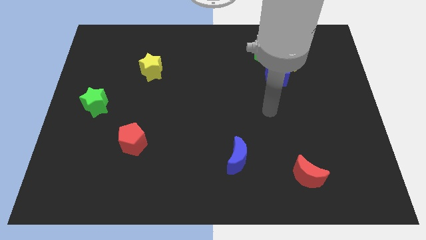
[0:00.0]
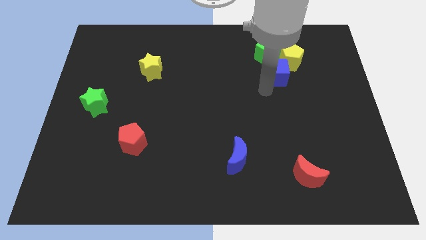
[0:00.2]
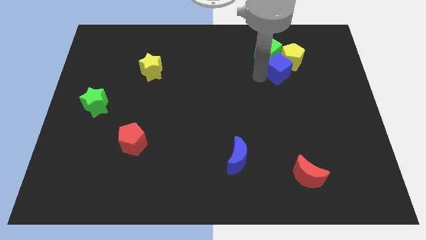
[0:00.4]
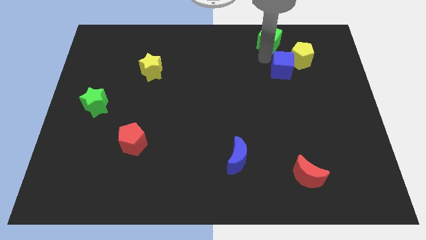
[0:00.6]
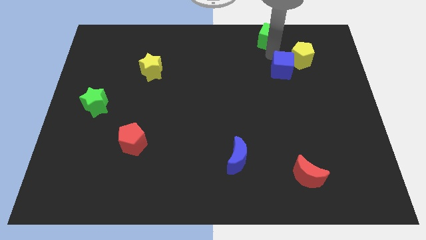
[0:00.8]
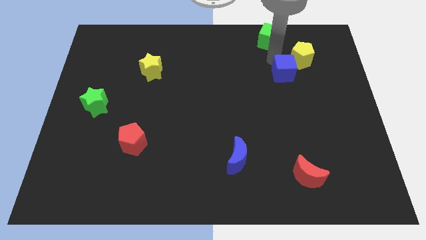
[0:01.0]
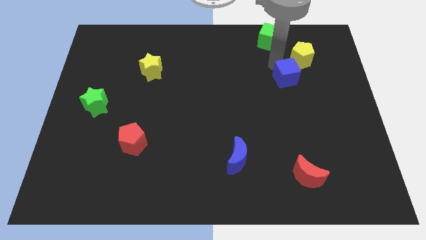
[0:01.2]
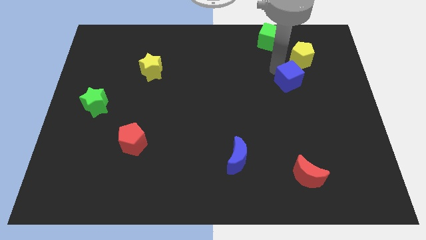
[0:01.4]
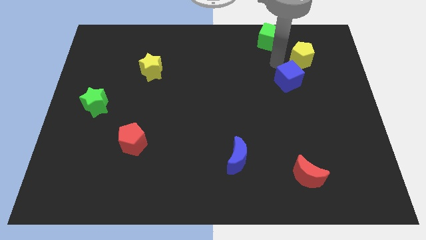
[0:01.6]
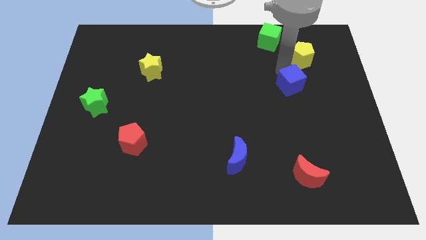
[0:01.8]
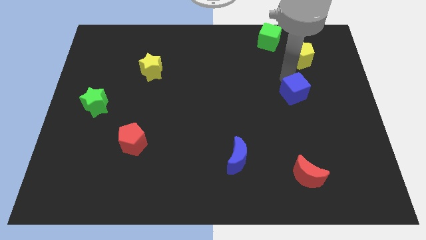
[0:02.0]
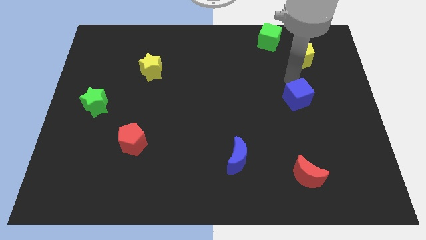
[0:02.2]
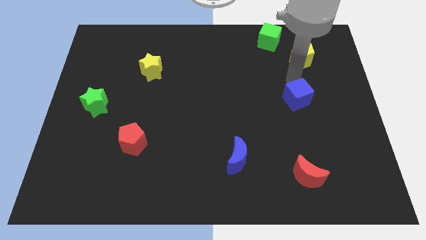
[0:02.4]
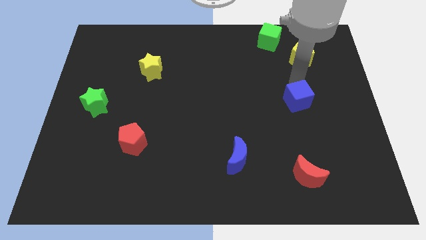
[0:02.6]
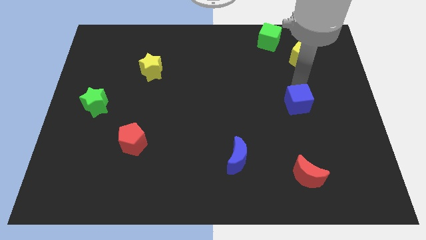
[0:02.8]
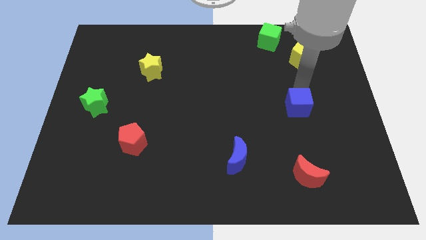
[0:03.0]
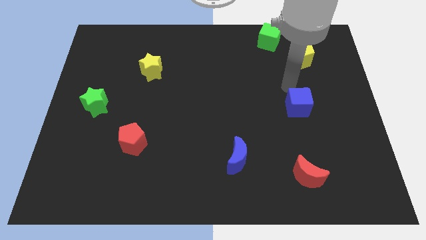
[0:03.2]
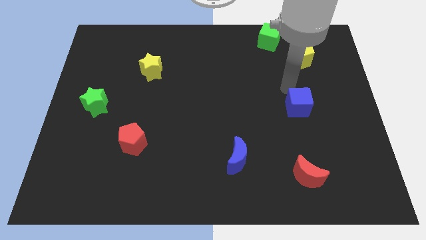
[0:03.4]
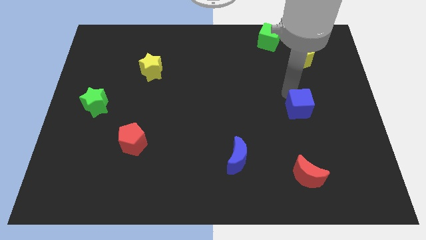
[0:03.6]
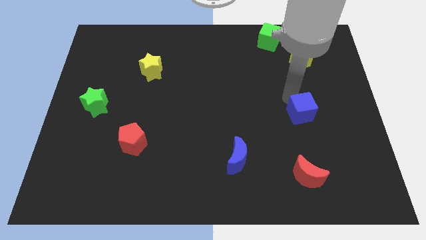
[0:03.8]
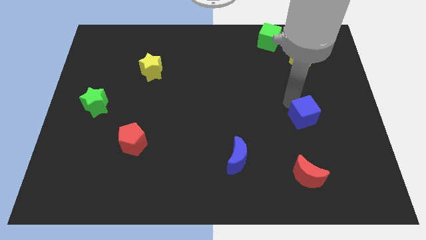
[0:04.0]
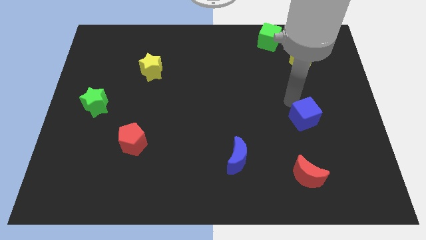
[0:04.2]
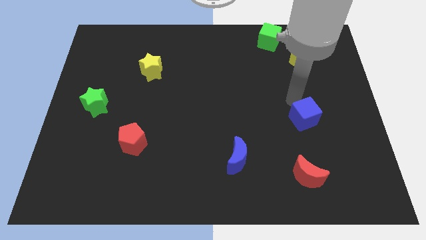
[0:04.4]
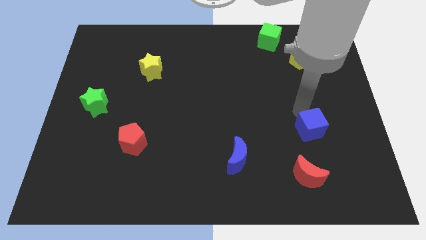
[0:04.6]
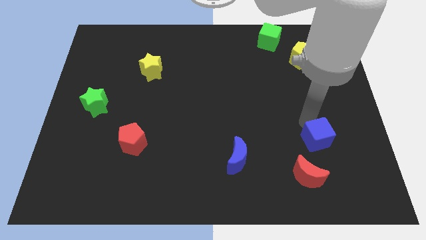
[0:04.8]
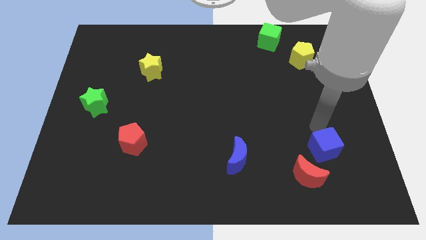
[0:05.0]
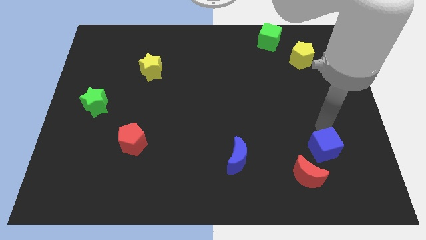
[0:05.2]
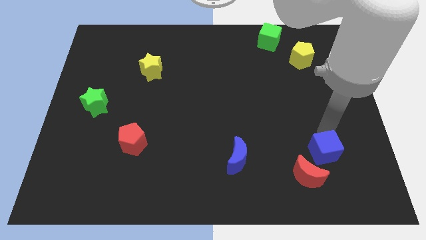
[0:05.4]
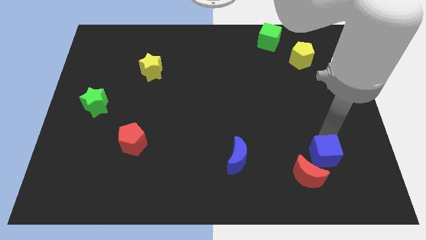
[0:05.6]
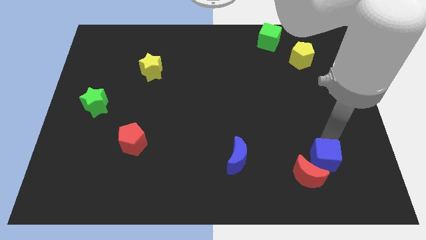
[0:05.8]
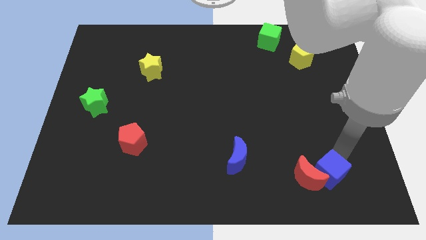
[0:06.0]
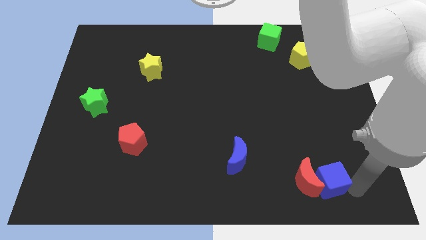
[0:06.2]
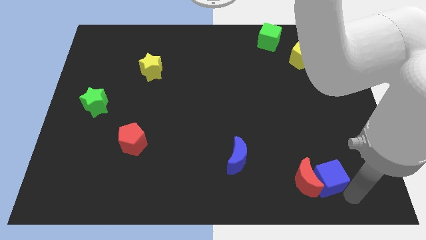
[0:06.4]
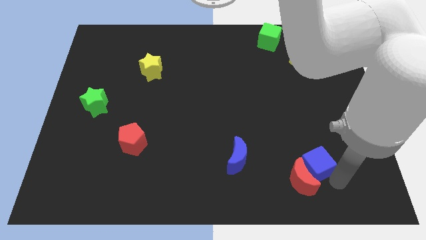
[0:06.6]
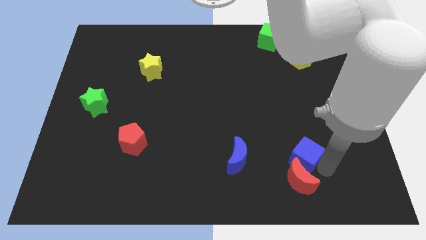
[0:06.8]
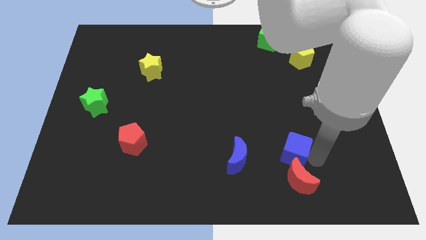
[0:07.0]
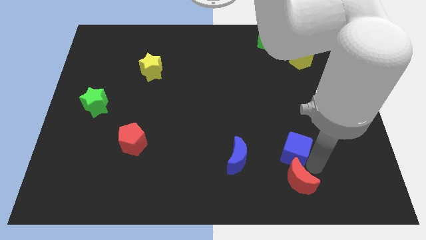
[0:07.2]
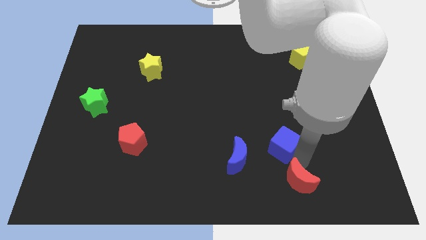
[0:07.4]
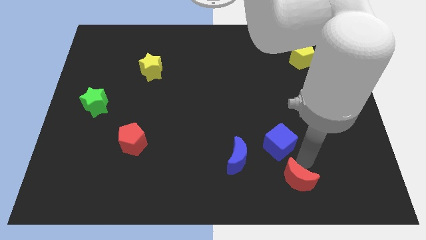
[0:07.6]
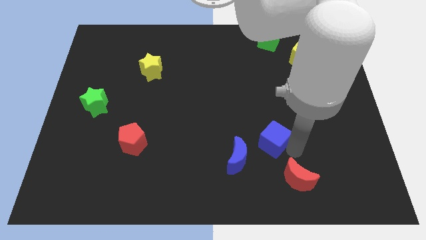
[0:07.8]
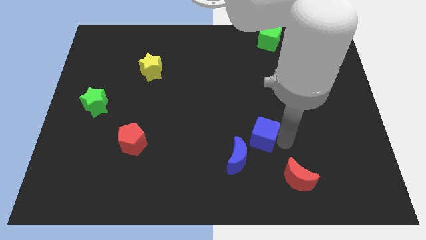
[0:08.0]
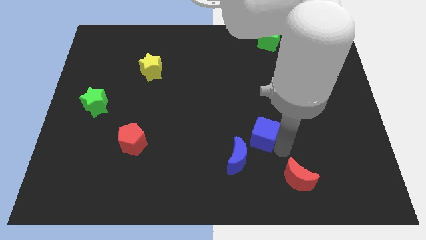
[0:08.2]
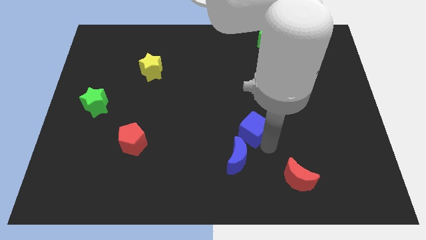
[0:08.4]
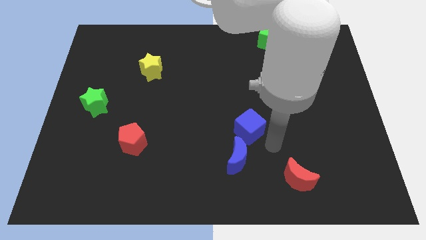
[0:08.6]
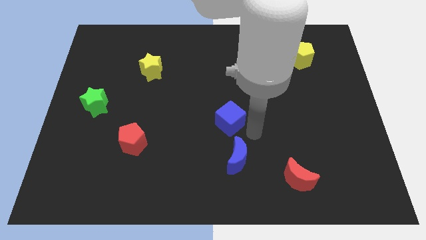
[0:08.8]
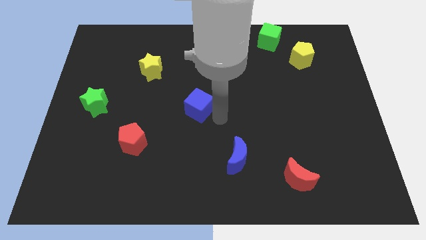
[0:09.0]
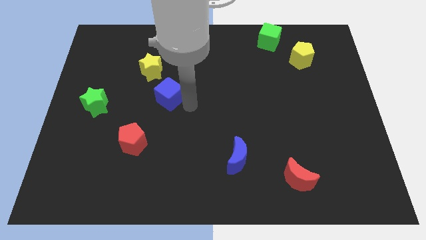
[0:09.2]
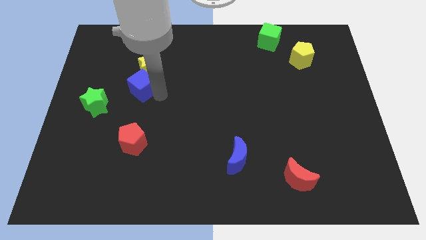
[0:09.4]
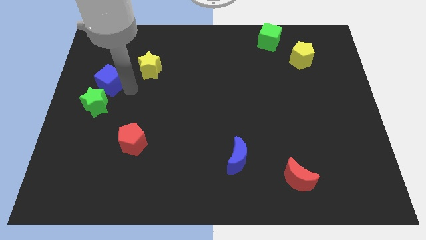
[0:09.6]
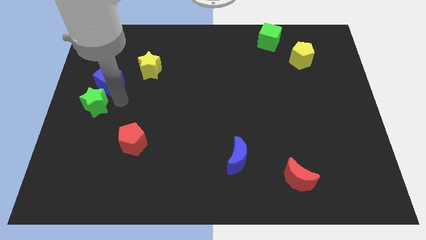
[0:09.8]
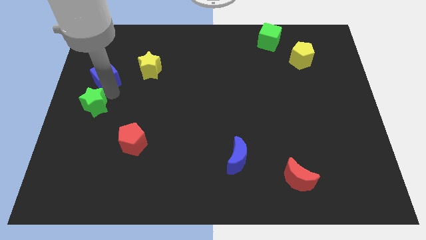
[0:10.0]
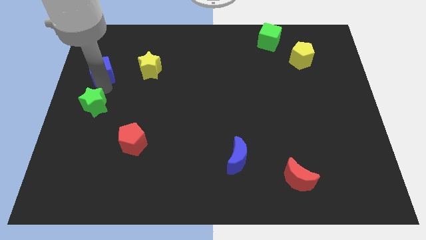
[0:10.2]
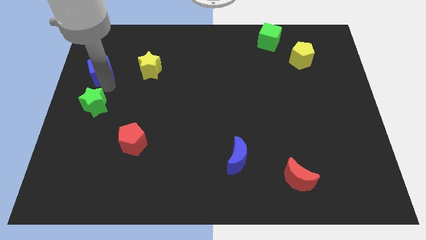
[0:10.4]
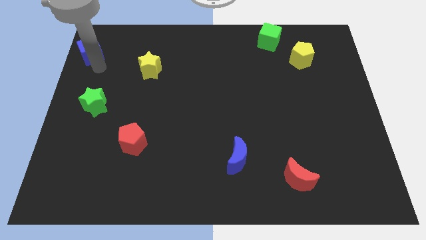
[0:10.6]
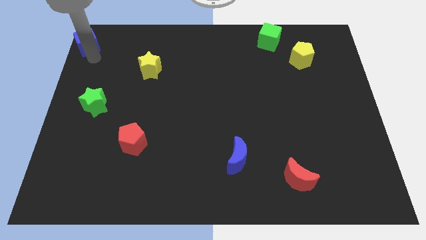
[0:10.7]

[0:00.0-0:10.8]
put the blue cube to the top left of the board

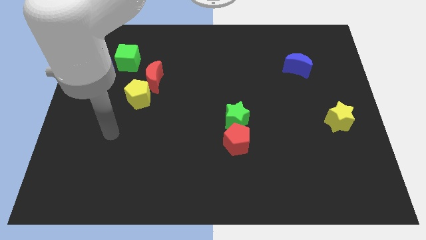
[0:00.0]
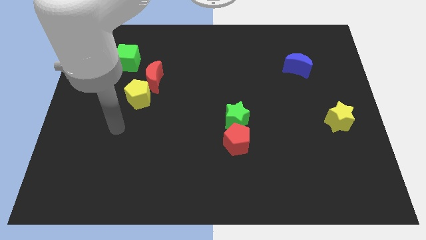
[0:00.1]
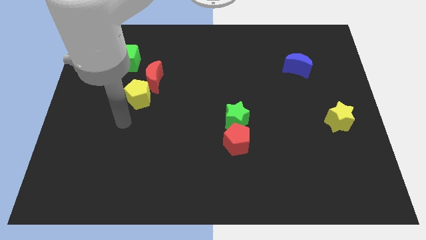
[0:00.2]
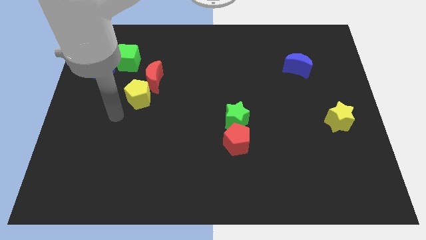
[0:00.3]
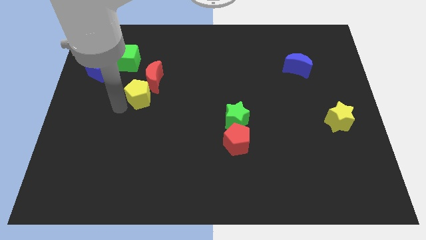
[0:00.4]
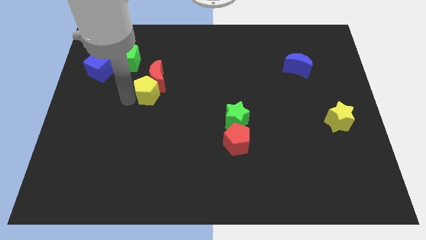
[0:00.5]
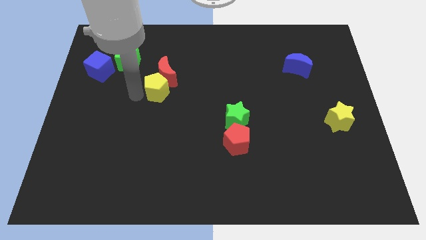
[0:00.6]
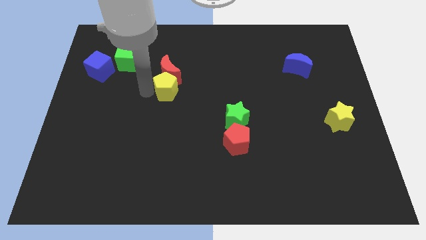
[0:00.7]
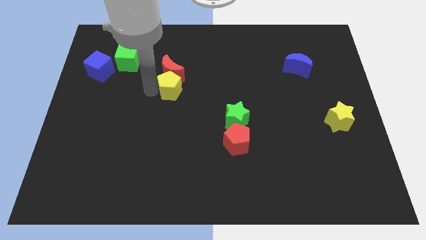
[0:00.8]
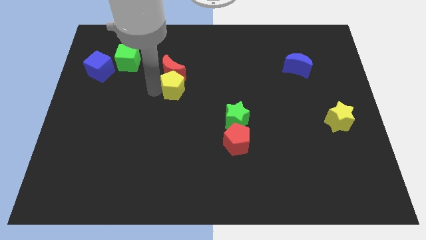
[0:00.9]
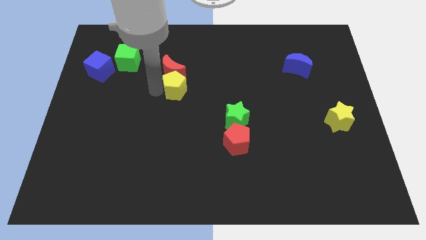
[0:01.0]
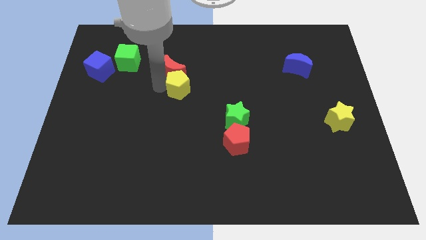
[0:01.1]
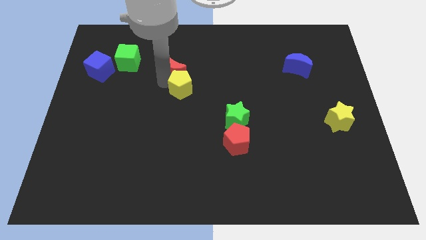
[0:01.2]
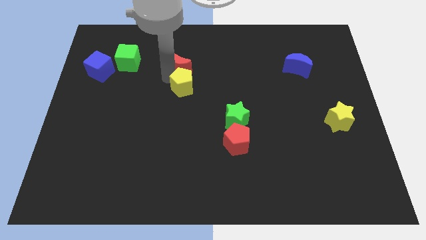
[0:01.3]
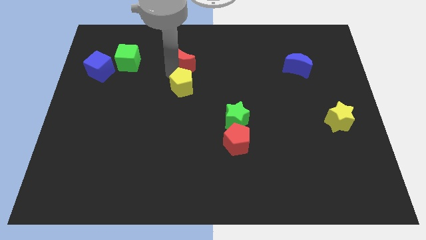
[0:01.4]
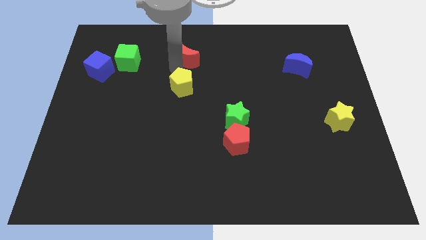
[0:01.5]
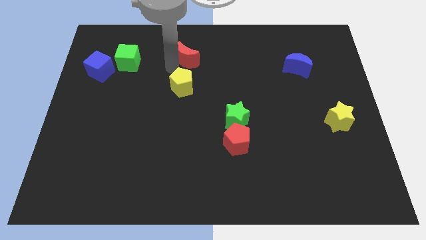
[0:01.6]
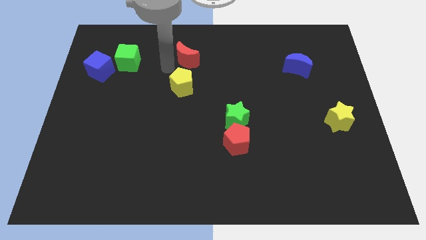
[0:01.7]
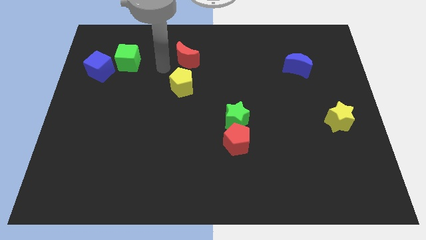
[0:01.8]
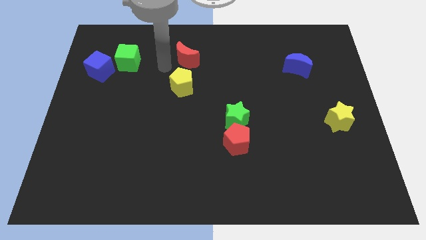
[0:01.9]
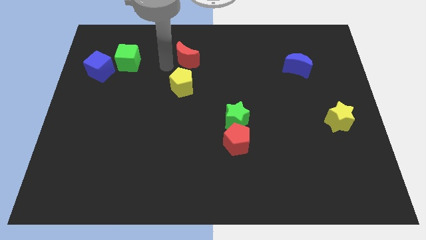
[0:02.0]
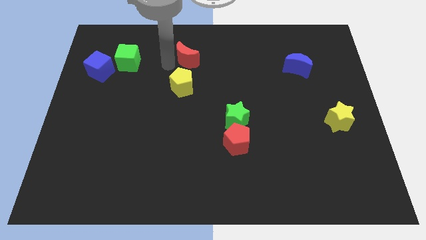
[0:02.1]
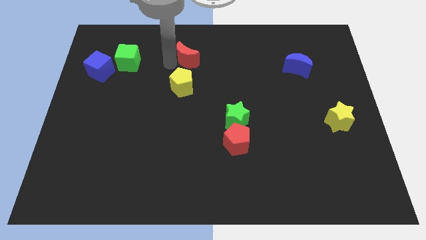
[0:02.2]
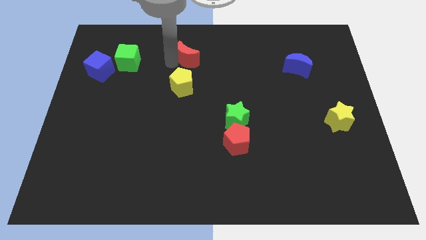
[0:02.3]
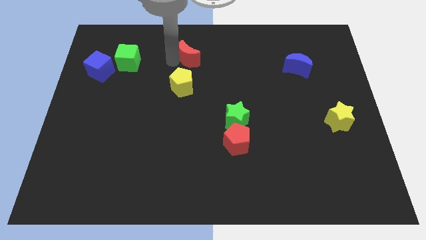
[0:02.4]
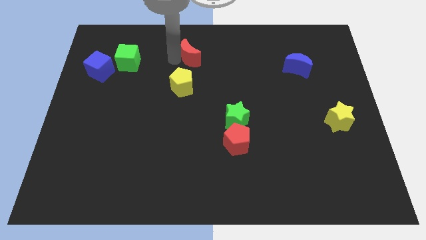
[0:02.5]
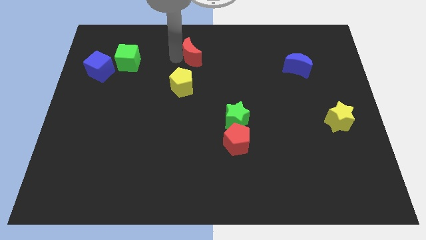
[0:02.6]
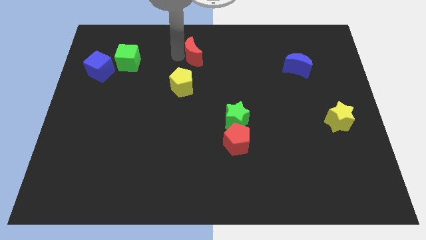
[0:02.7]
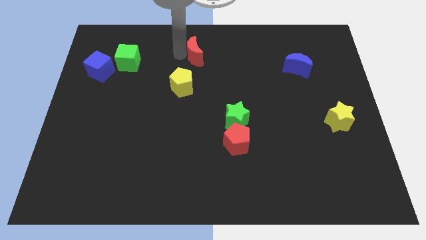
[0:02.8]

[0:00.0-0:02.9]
move the red moon to the top
